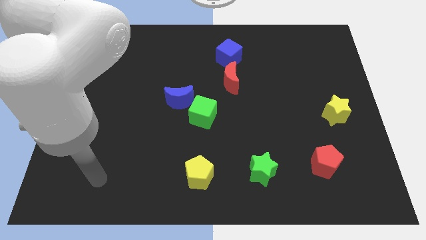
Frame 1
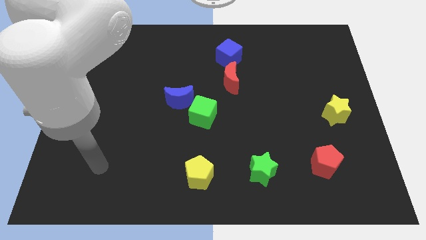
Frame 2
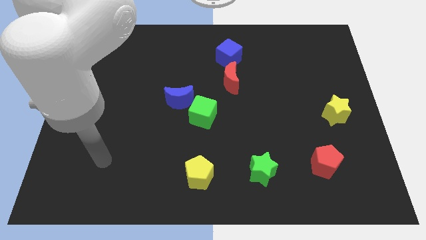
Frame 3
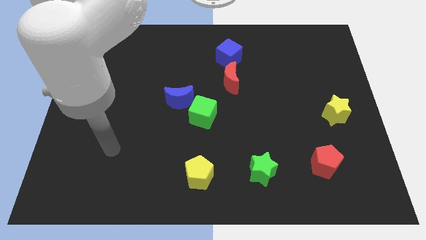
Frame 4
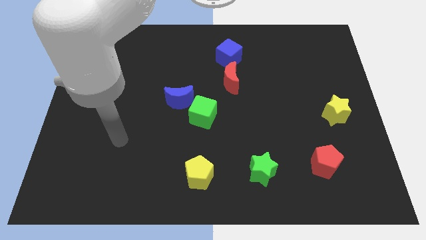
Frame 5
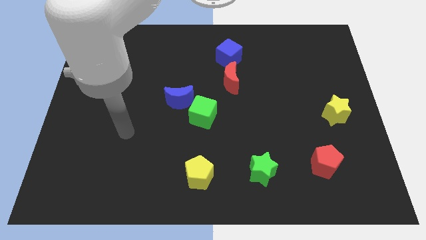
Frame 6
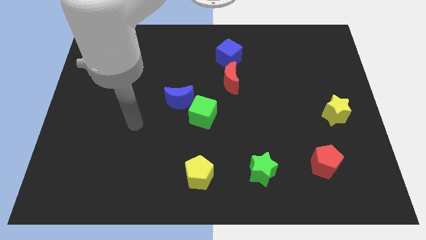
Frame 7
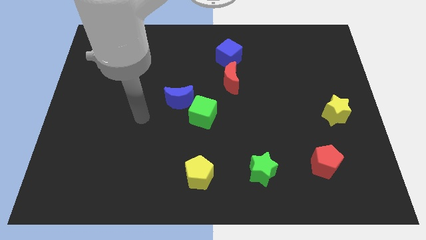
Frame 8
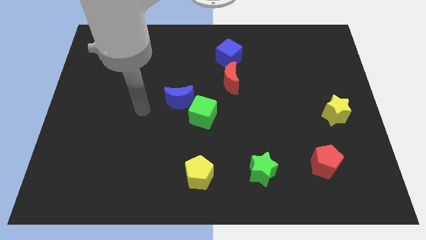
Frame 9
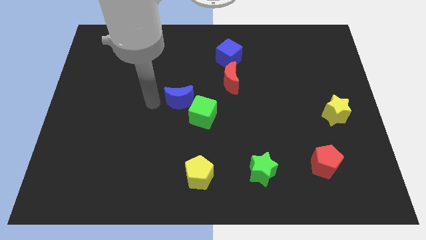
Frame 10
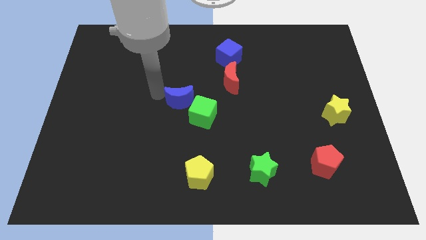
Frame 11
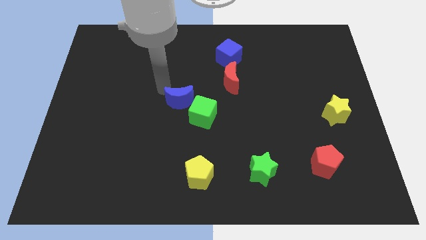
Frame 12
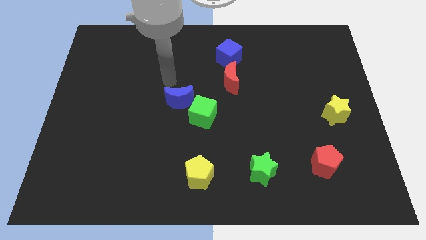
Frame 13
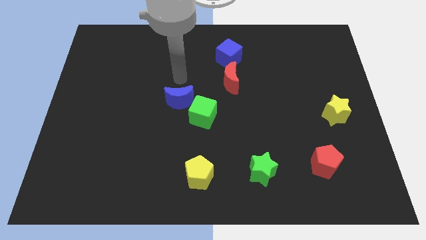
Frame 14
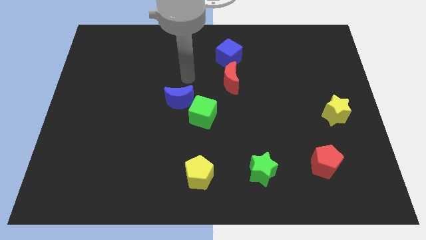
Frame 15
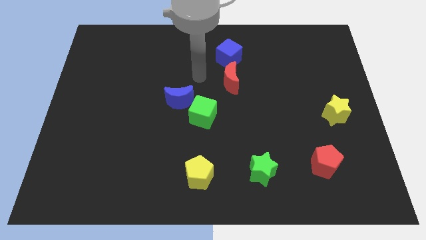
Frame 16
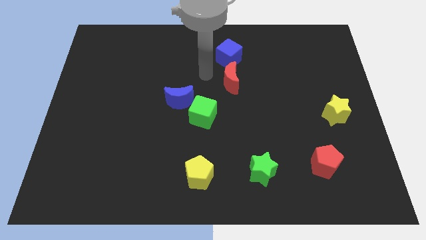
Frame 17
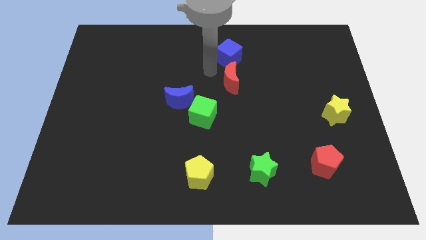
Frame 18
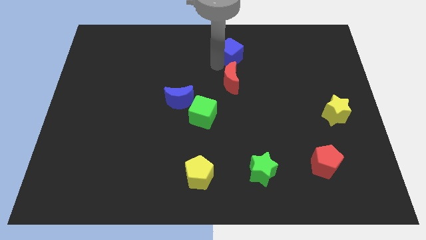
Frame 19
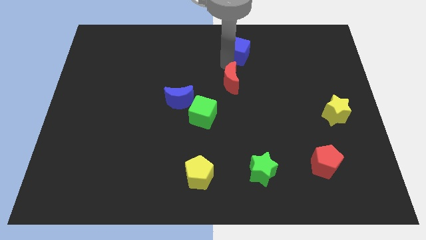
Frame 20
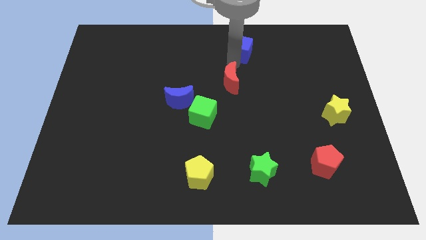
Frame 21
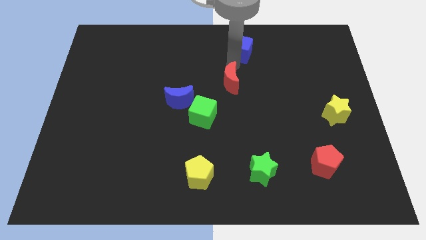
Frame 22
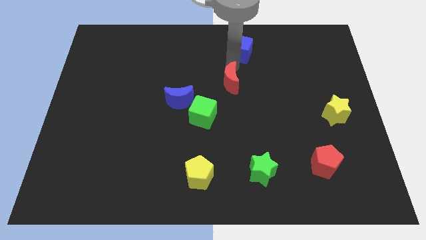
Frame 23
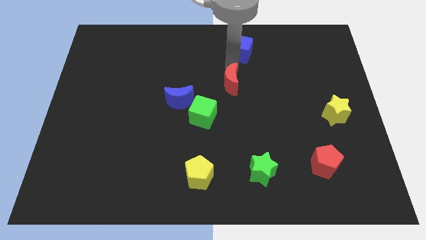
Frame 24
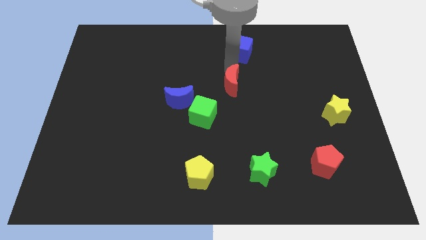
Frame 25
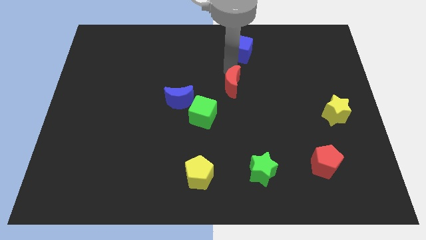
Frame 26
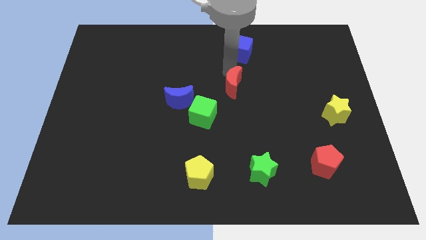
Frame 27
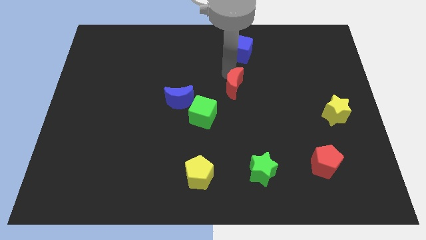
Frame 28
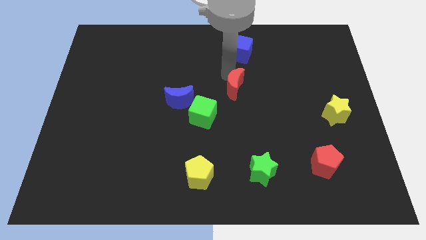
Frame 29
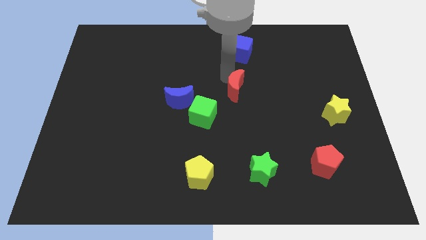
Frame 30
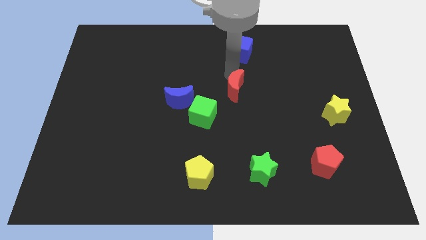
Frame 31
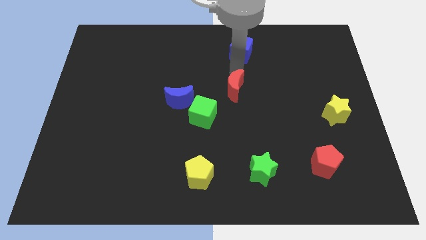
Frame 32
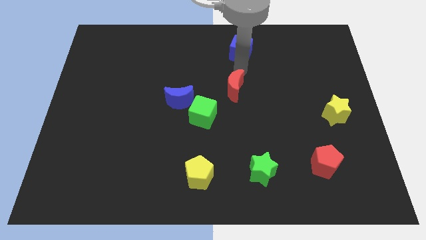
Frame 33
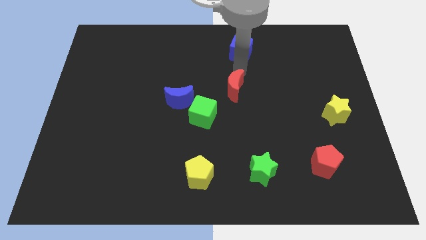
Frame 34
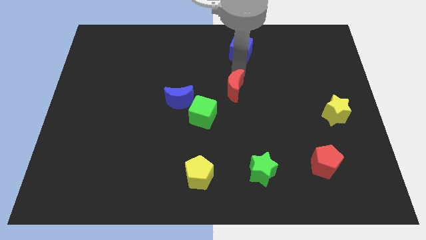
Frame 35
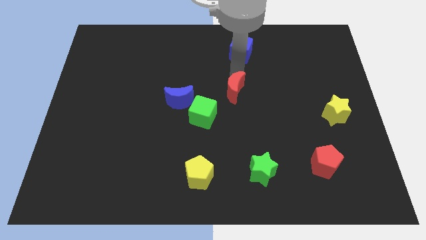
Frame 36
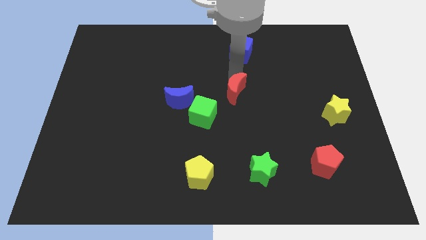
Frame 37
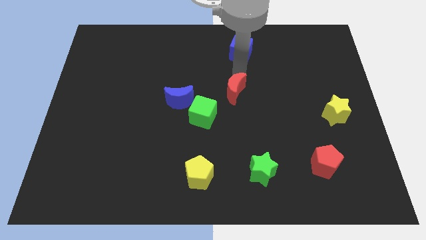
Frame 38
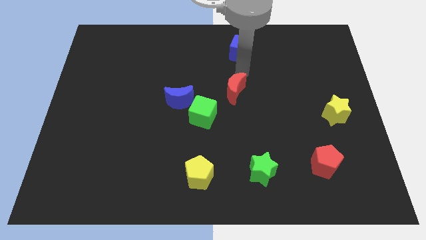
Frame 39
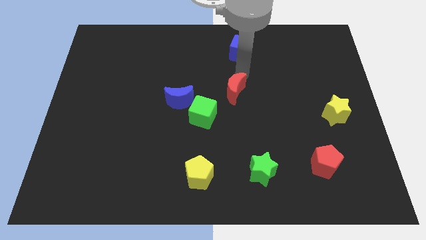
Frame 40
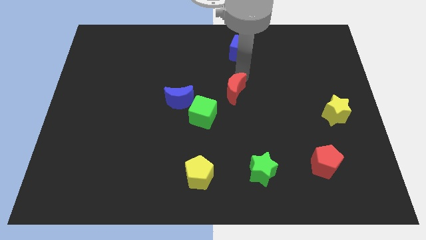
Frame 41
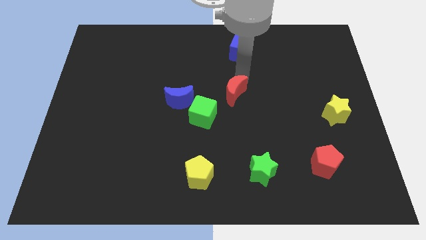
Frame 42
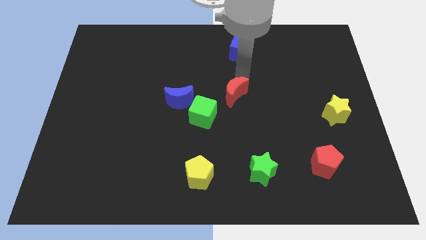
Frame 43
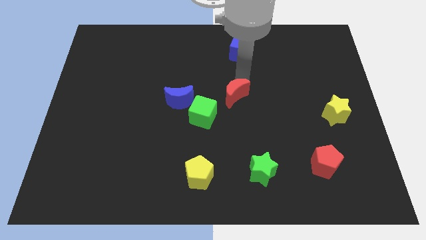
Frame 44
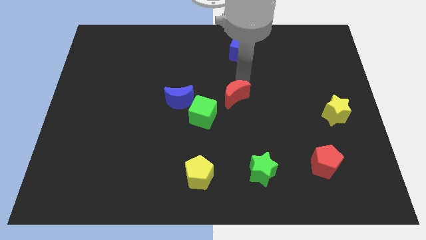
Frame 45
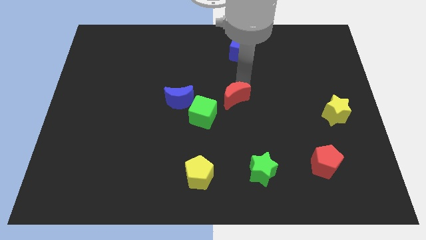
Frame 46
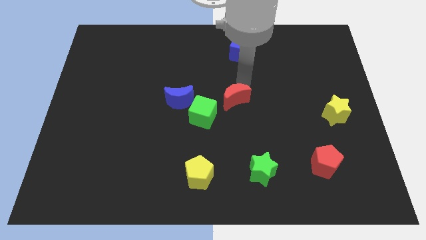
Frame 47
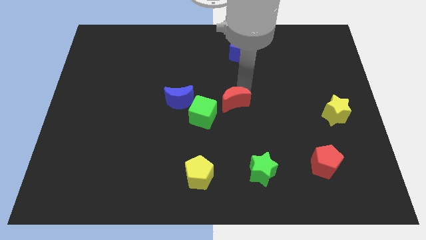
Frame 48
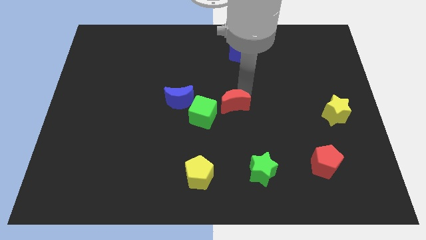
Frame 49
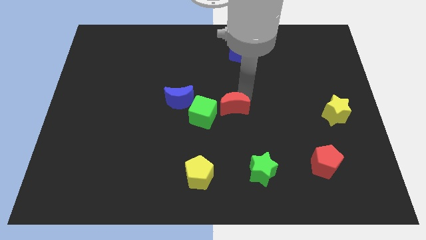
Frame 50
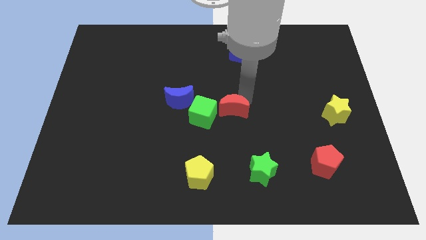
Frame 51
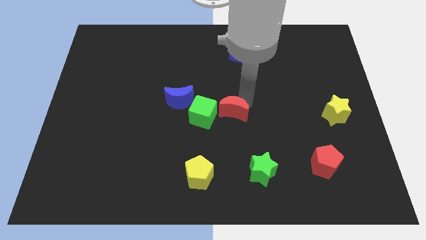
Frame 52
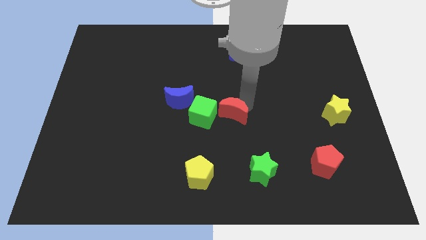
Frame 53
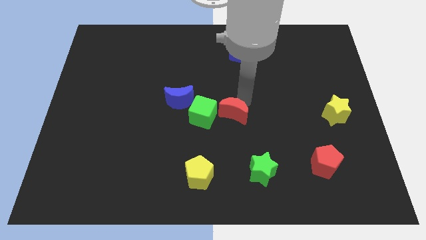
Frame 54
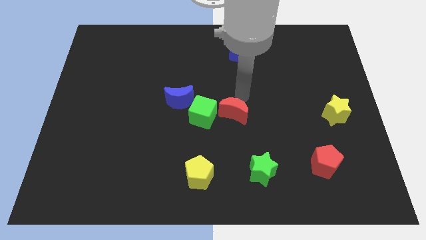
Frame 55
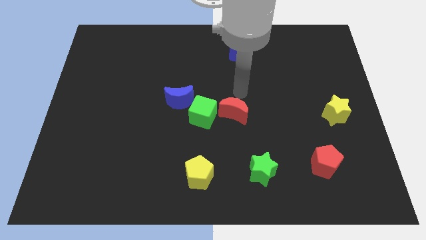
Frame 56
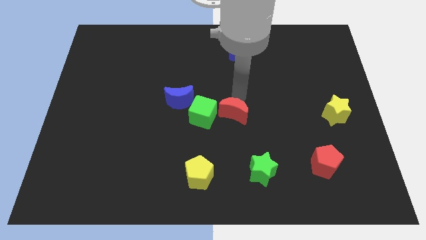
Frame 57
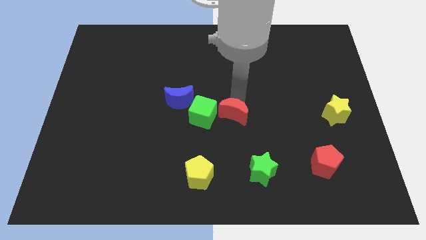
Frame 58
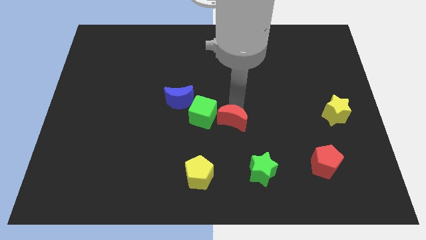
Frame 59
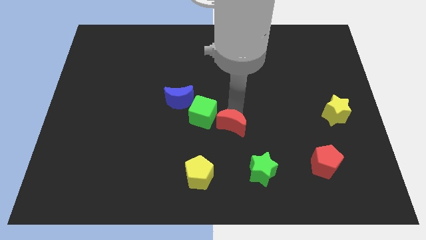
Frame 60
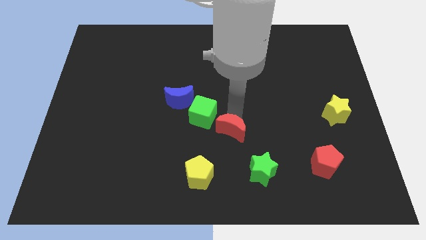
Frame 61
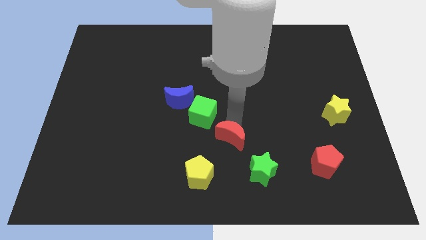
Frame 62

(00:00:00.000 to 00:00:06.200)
put the red moon to the top right of the yellow pentagon

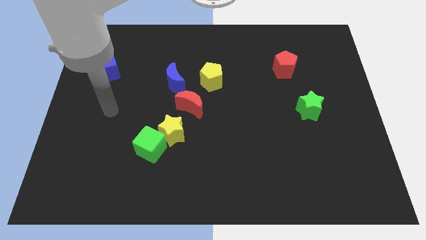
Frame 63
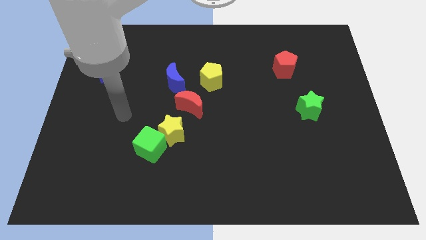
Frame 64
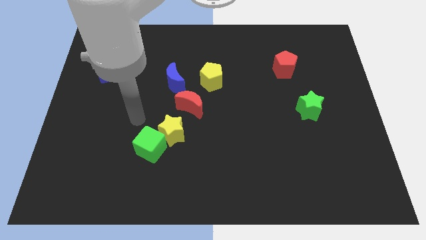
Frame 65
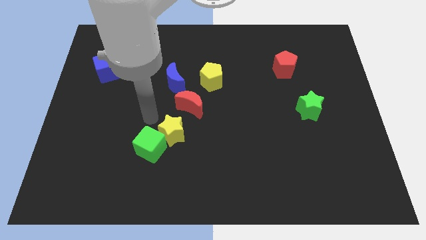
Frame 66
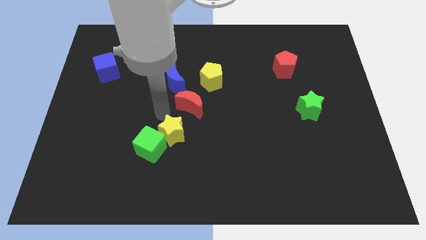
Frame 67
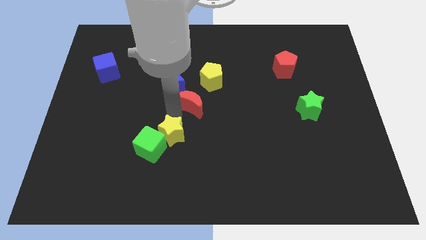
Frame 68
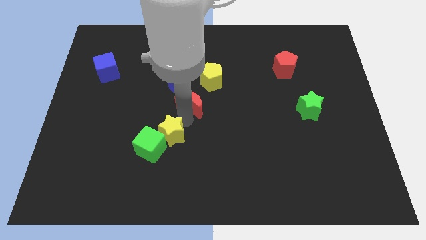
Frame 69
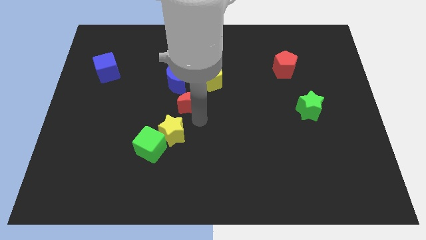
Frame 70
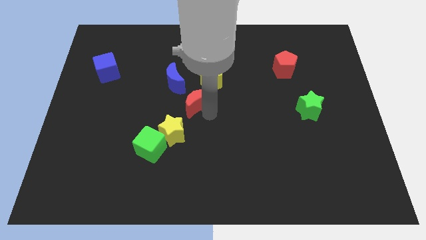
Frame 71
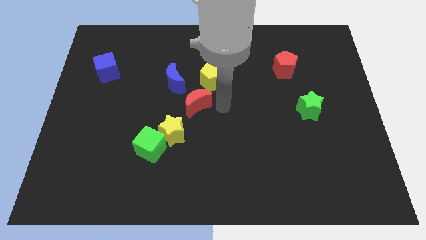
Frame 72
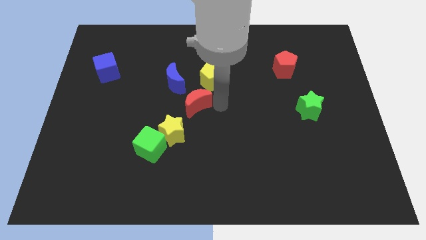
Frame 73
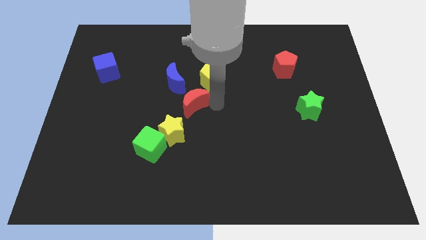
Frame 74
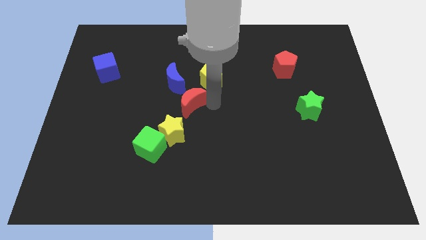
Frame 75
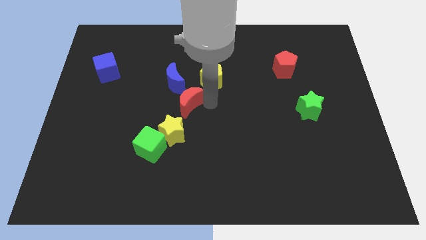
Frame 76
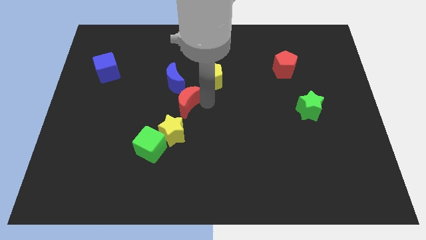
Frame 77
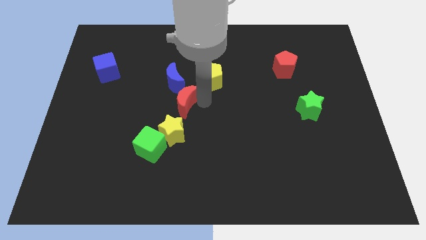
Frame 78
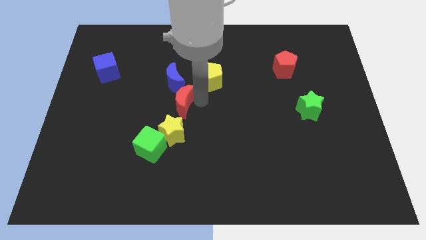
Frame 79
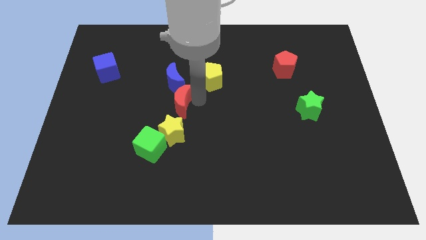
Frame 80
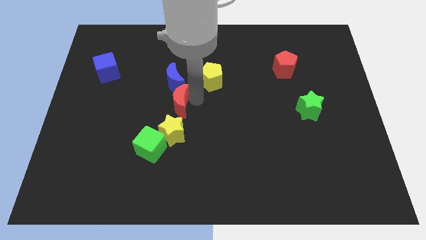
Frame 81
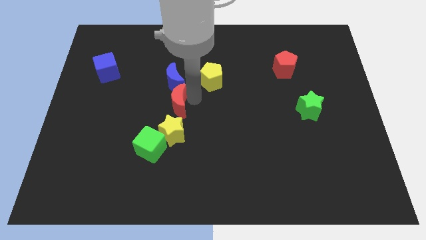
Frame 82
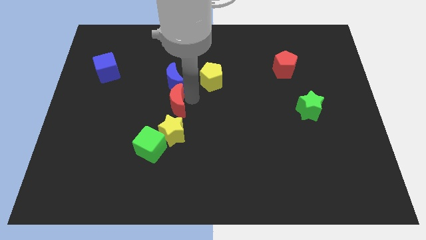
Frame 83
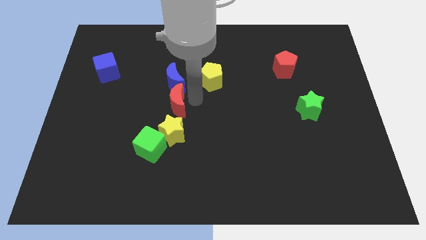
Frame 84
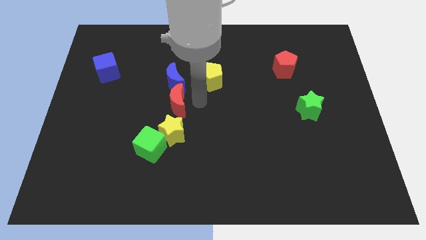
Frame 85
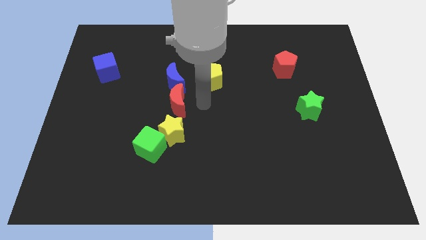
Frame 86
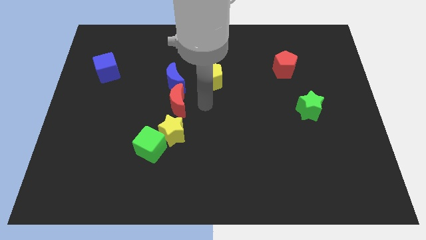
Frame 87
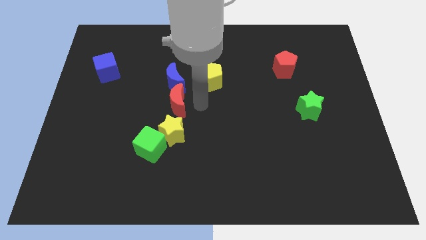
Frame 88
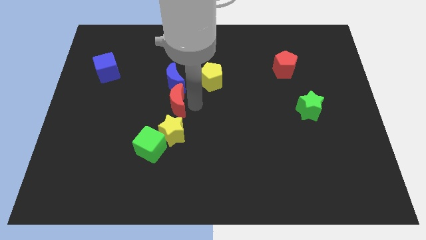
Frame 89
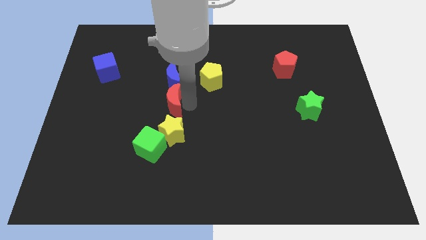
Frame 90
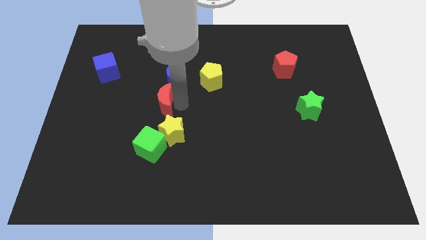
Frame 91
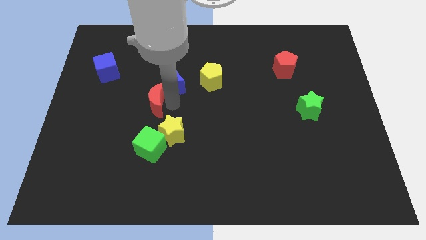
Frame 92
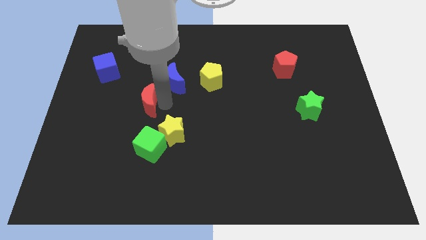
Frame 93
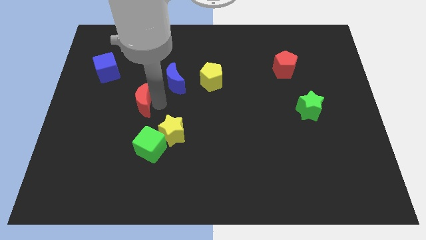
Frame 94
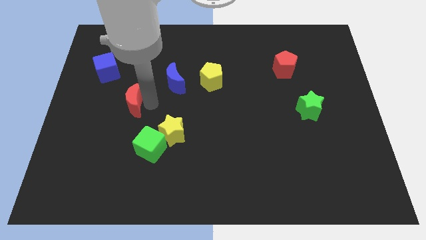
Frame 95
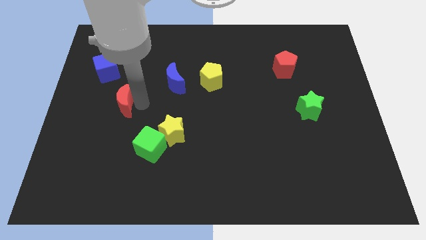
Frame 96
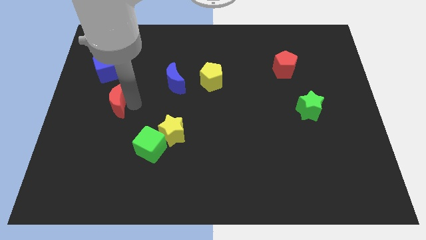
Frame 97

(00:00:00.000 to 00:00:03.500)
slide the red moon to the bottom side of the blue cube
